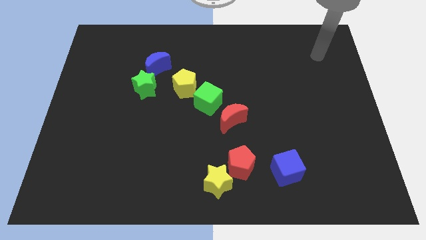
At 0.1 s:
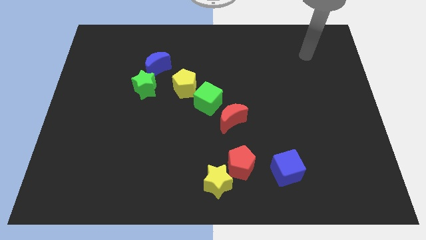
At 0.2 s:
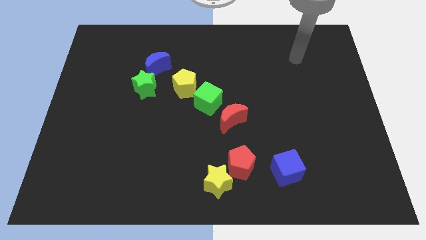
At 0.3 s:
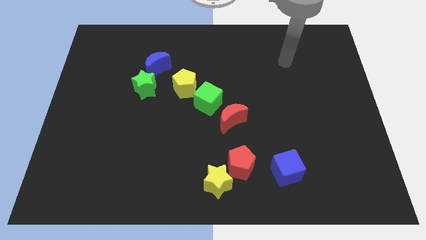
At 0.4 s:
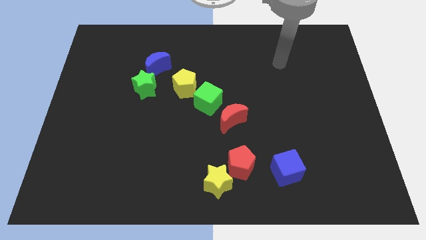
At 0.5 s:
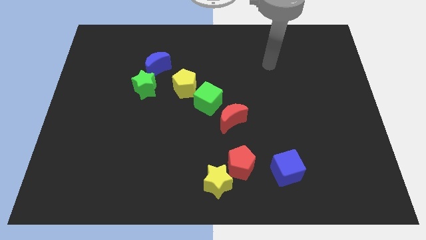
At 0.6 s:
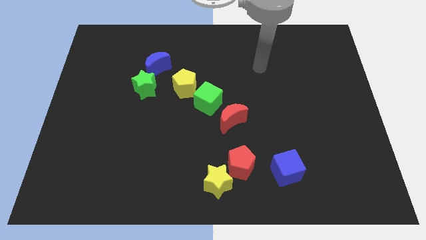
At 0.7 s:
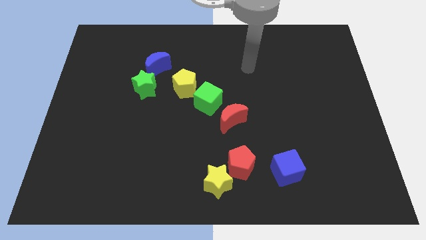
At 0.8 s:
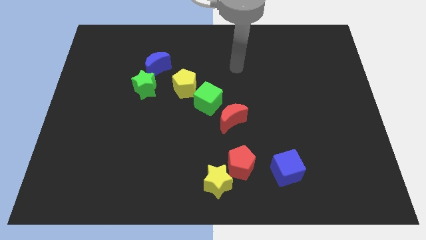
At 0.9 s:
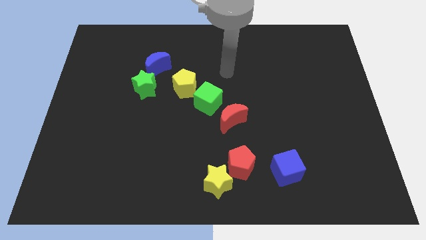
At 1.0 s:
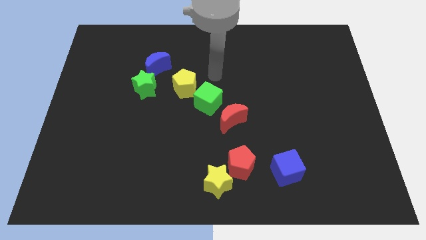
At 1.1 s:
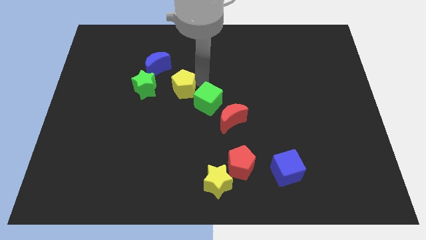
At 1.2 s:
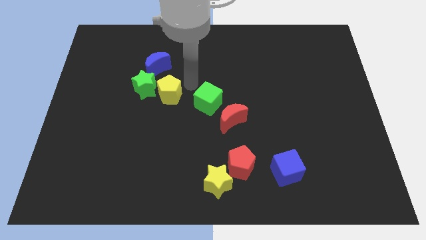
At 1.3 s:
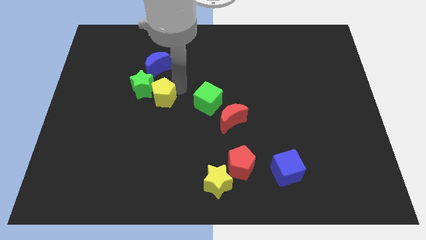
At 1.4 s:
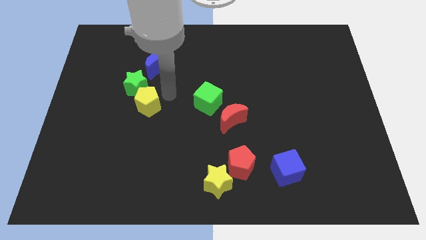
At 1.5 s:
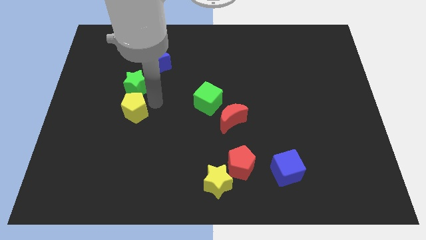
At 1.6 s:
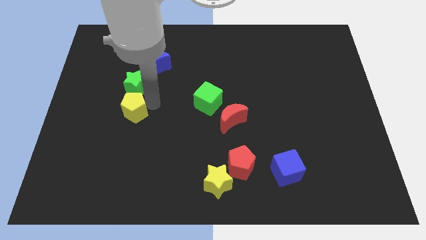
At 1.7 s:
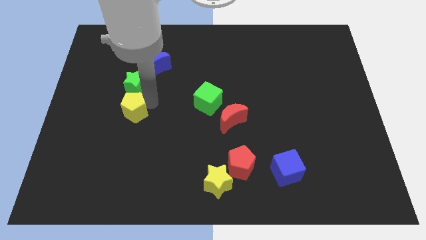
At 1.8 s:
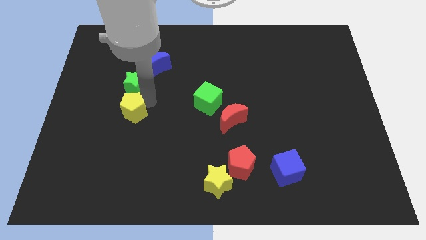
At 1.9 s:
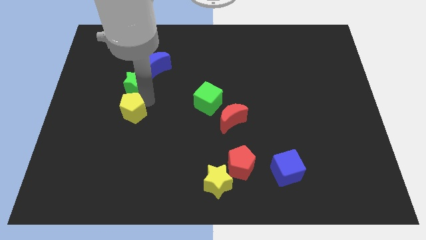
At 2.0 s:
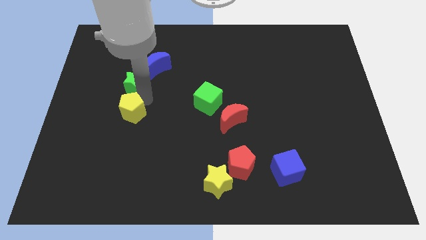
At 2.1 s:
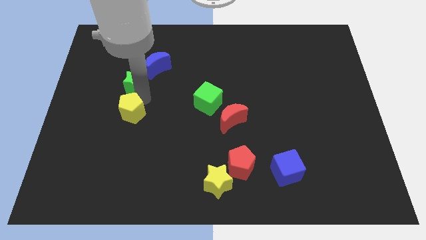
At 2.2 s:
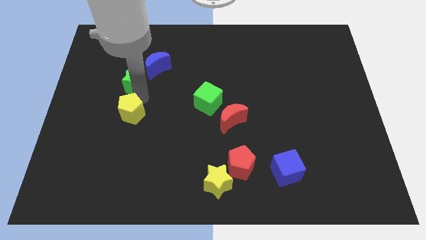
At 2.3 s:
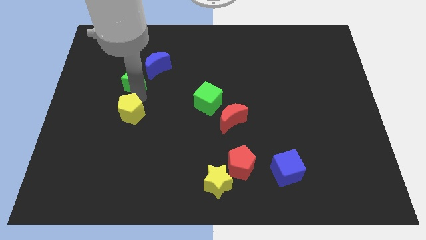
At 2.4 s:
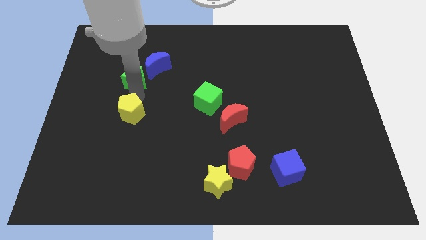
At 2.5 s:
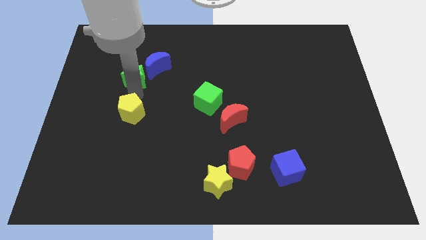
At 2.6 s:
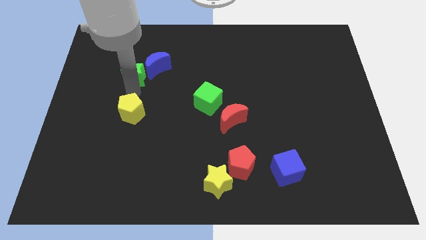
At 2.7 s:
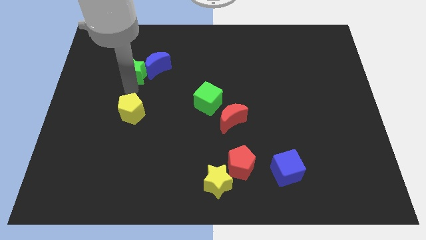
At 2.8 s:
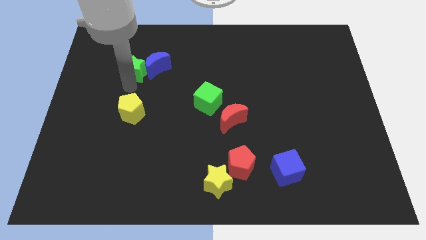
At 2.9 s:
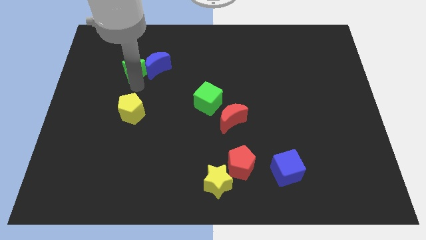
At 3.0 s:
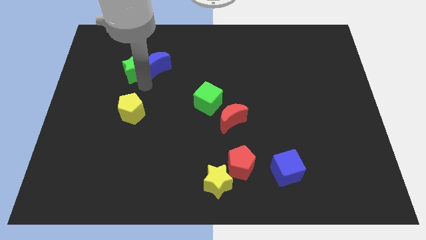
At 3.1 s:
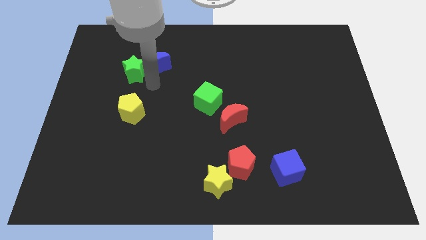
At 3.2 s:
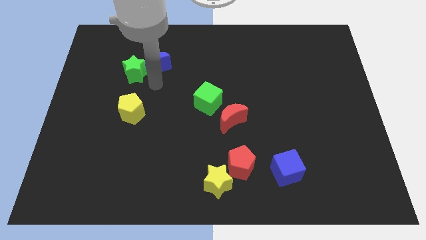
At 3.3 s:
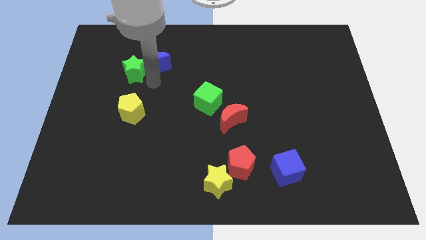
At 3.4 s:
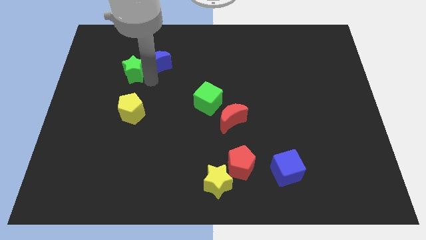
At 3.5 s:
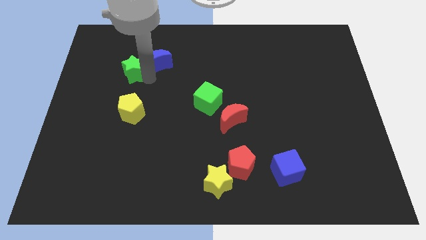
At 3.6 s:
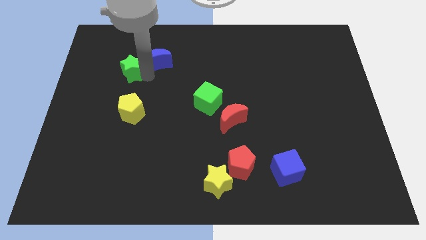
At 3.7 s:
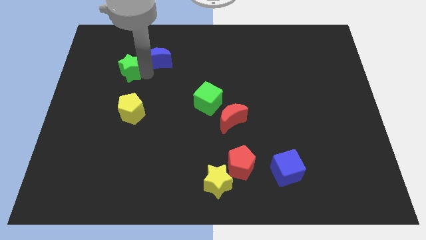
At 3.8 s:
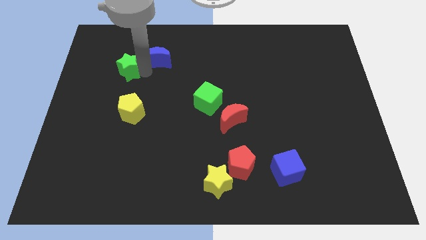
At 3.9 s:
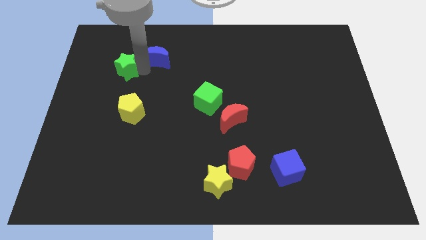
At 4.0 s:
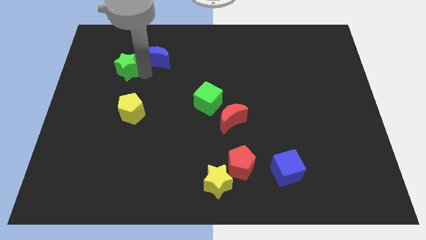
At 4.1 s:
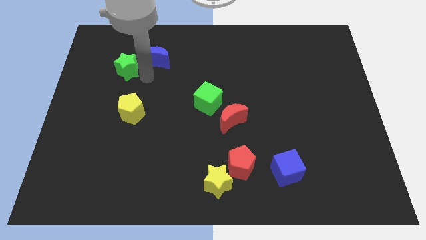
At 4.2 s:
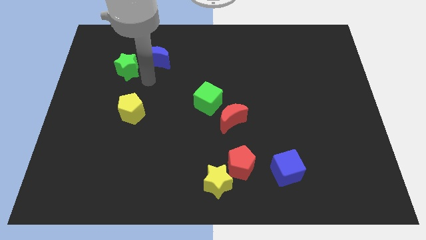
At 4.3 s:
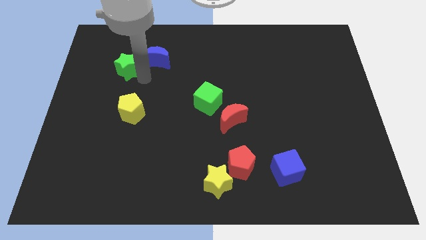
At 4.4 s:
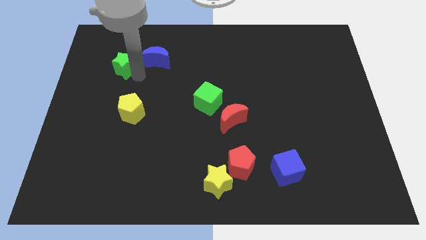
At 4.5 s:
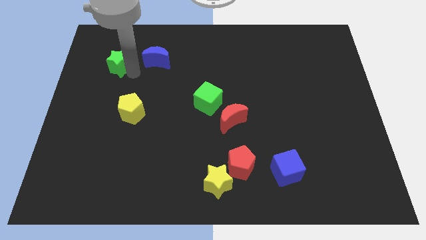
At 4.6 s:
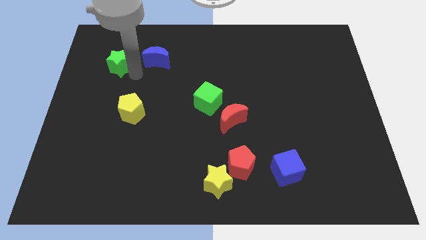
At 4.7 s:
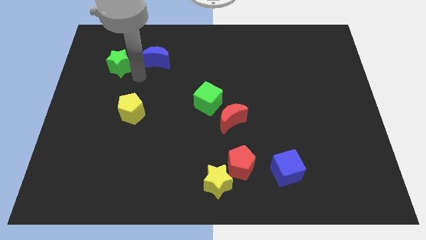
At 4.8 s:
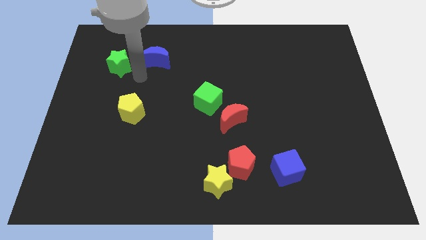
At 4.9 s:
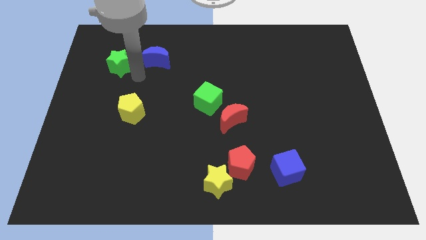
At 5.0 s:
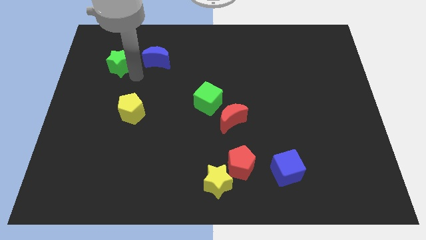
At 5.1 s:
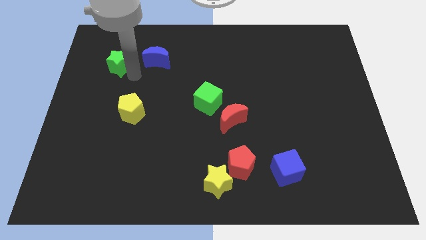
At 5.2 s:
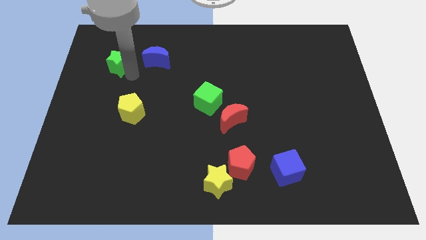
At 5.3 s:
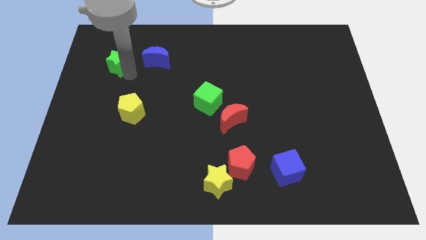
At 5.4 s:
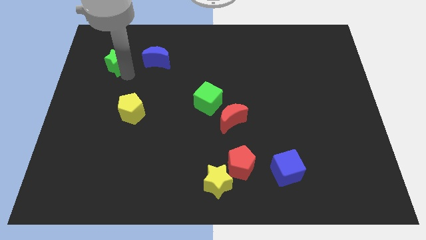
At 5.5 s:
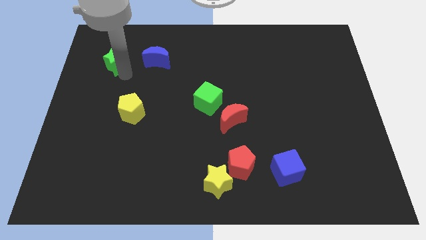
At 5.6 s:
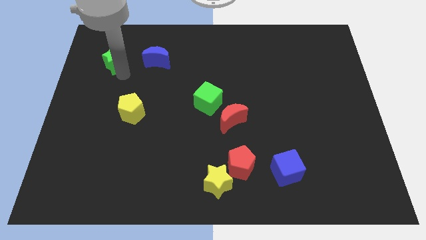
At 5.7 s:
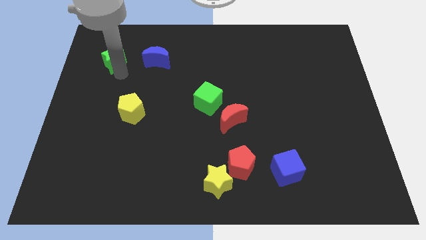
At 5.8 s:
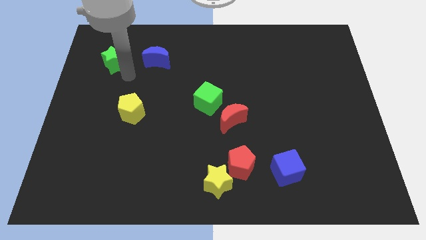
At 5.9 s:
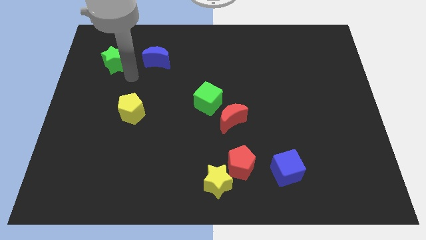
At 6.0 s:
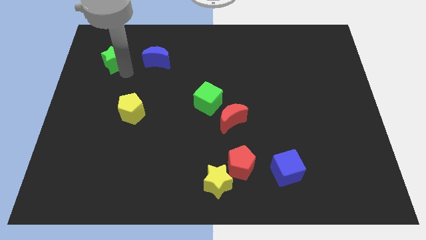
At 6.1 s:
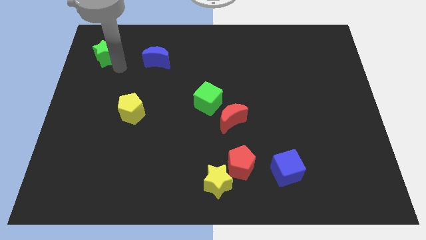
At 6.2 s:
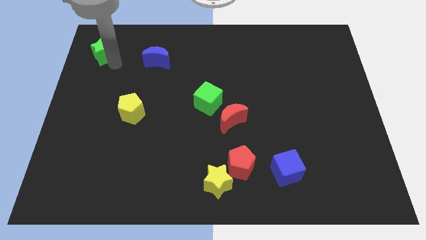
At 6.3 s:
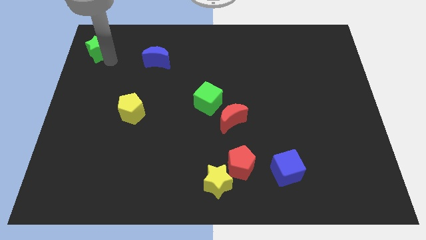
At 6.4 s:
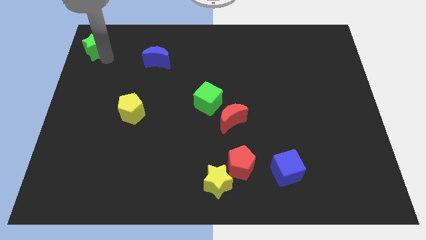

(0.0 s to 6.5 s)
put the green star to the upper left corner
